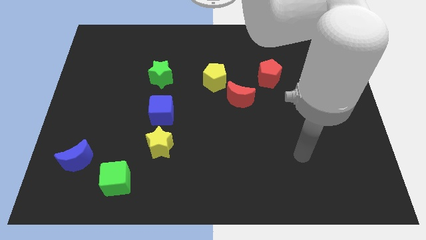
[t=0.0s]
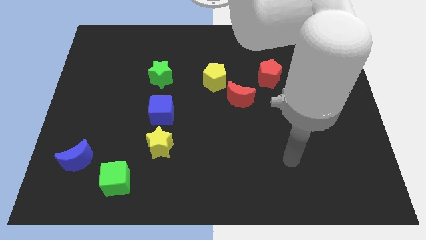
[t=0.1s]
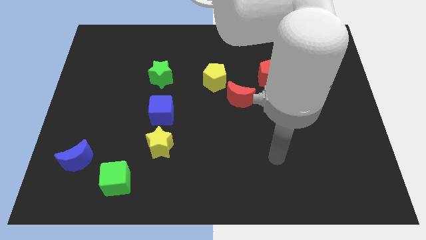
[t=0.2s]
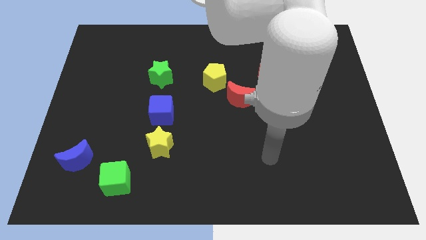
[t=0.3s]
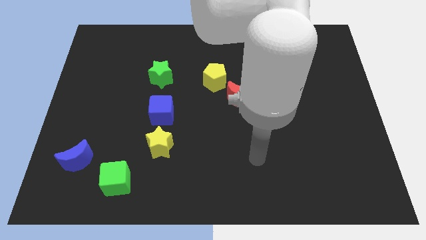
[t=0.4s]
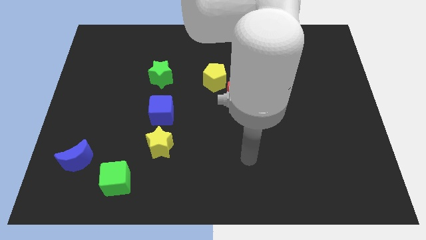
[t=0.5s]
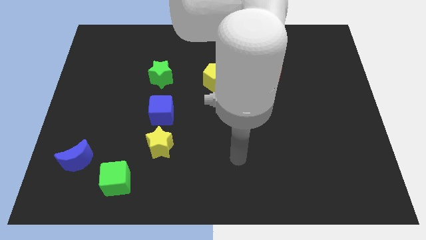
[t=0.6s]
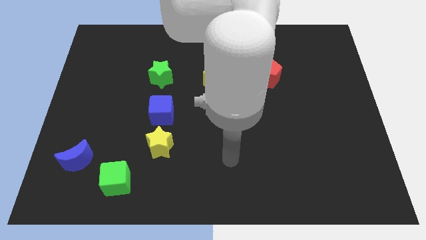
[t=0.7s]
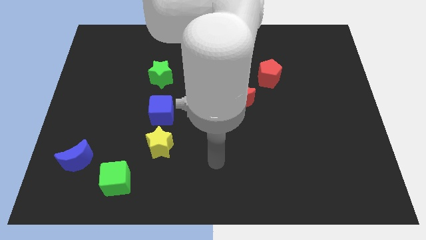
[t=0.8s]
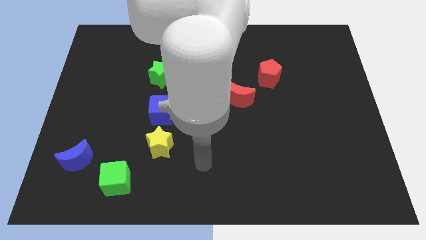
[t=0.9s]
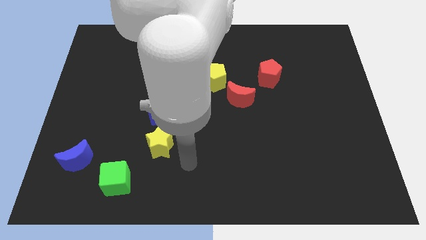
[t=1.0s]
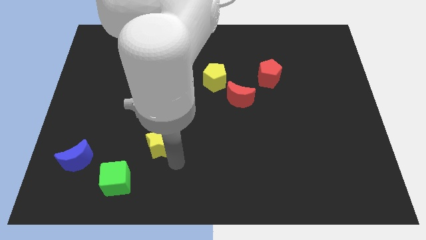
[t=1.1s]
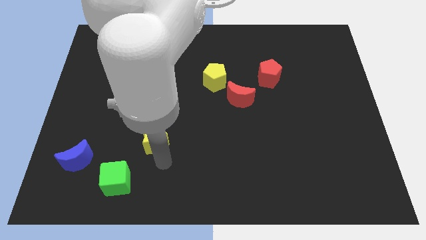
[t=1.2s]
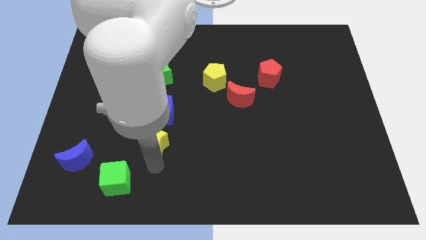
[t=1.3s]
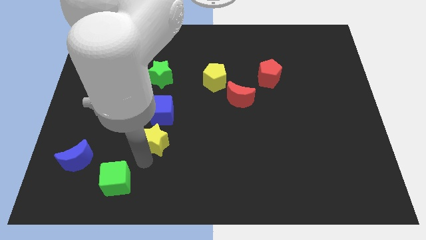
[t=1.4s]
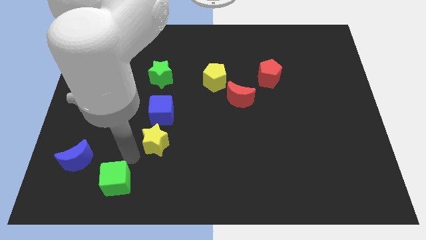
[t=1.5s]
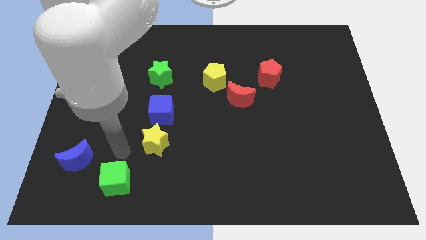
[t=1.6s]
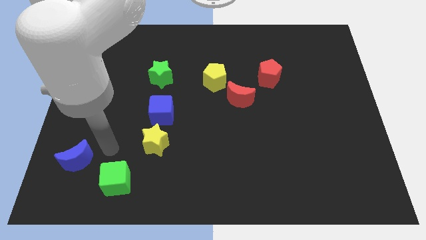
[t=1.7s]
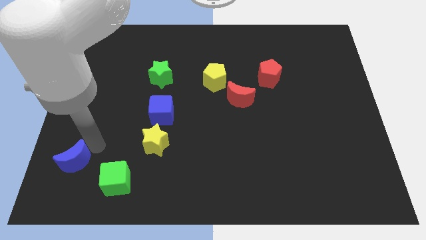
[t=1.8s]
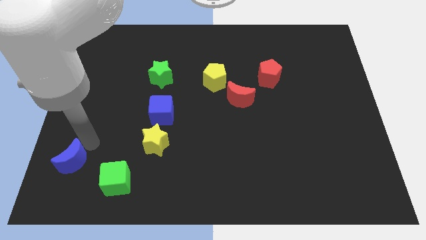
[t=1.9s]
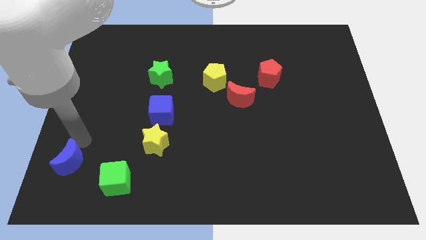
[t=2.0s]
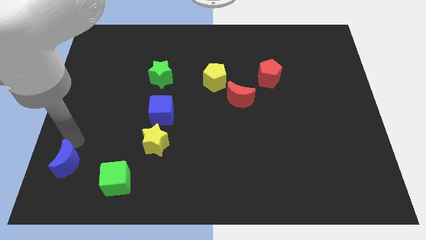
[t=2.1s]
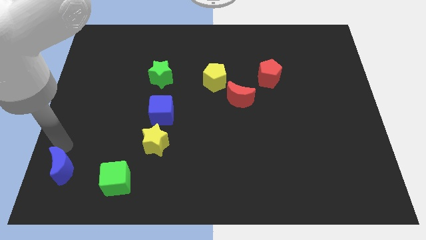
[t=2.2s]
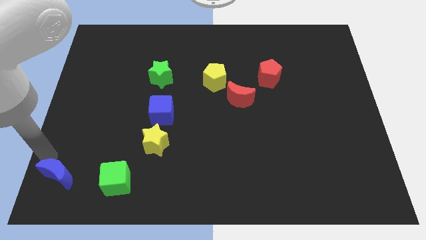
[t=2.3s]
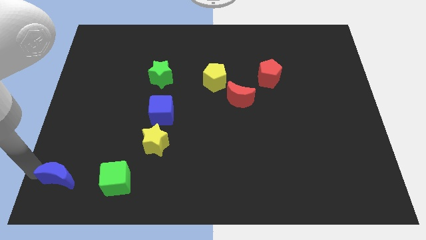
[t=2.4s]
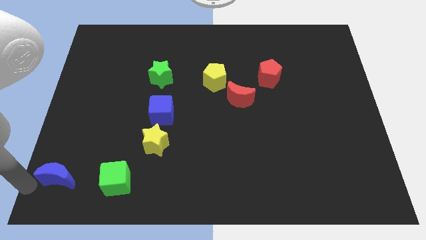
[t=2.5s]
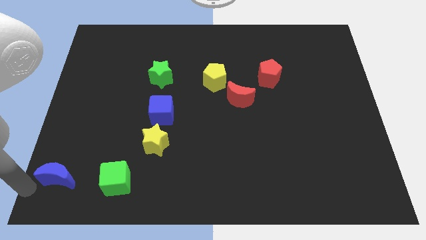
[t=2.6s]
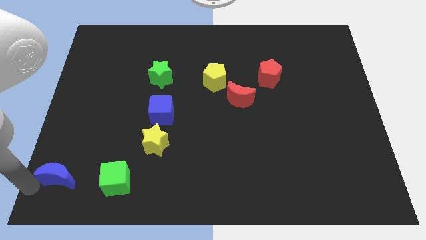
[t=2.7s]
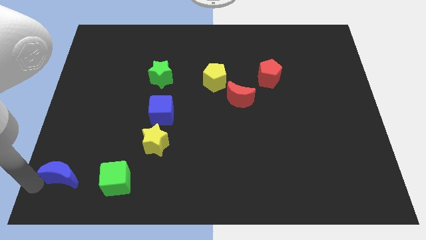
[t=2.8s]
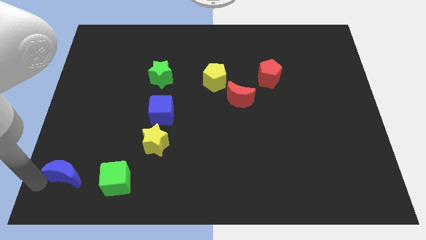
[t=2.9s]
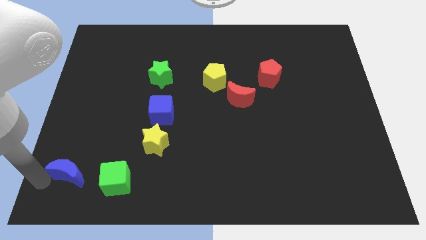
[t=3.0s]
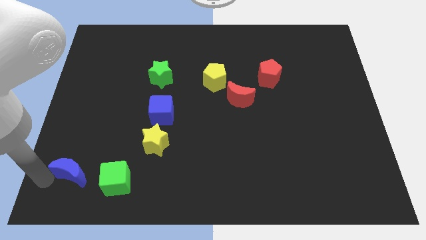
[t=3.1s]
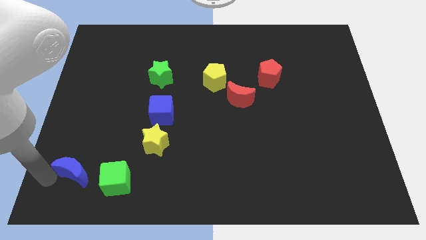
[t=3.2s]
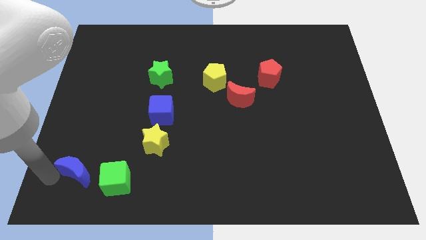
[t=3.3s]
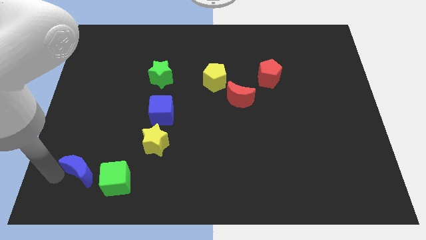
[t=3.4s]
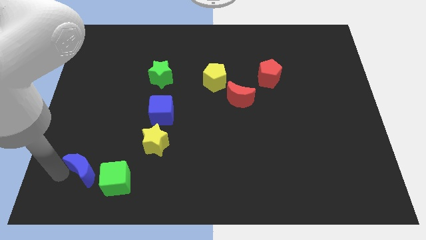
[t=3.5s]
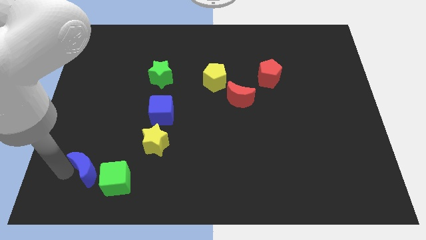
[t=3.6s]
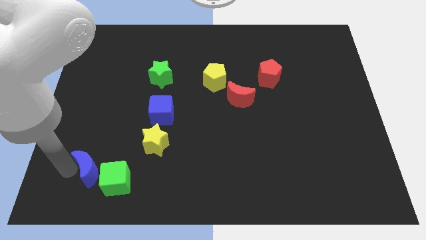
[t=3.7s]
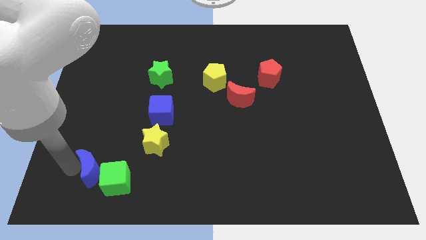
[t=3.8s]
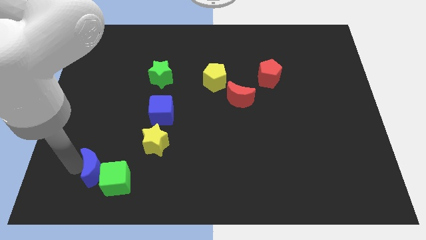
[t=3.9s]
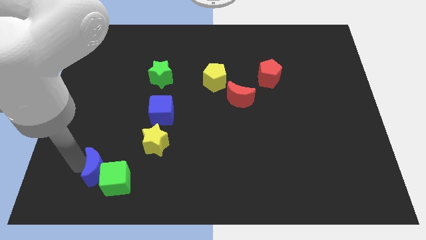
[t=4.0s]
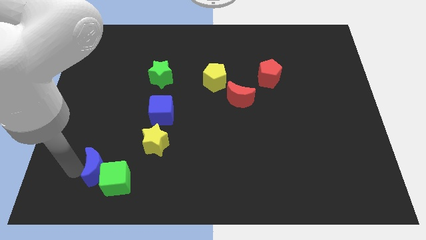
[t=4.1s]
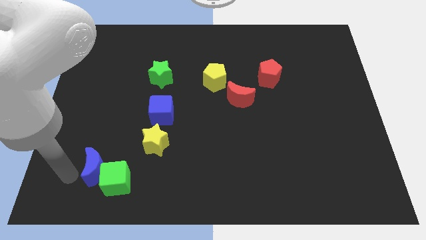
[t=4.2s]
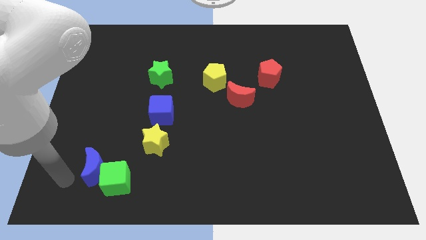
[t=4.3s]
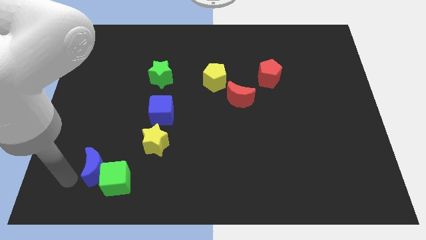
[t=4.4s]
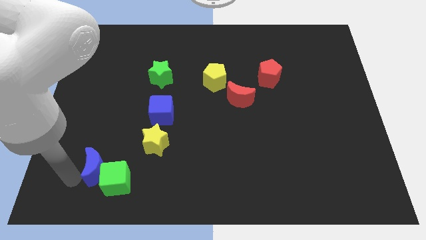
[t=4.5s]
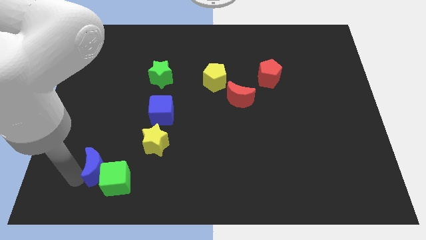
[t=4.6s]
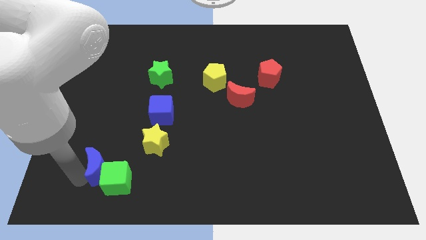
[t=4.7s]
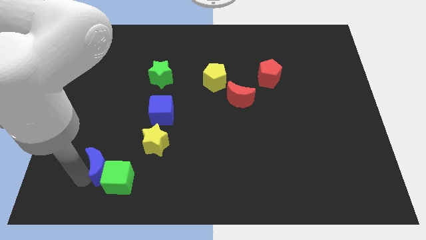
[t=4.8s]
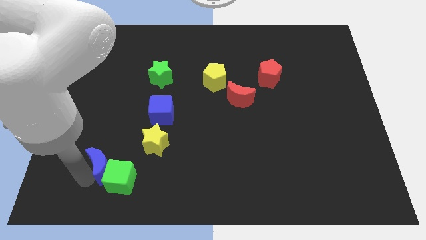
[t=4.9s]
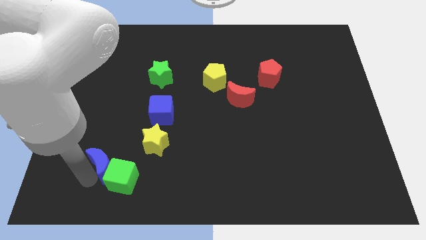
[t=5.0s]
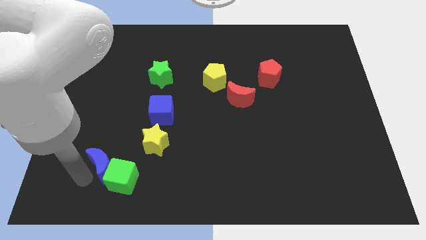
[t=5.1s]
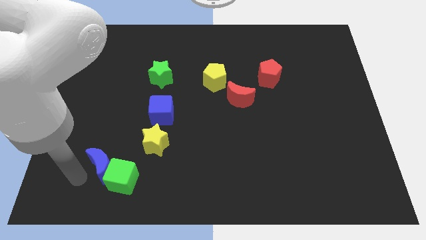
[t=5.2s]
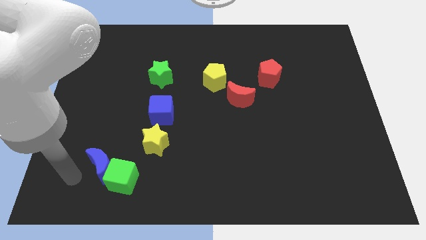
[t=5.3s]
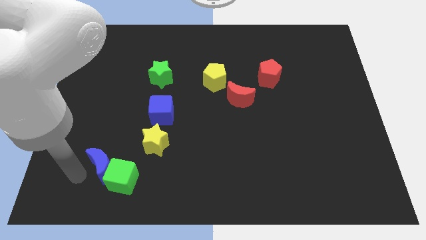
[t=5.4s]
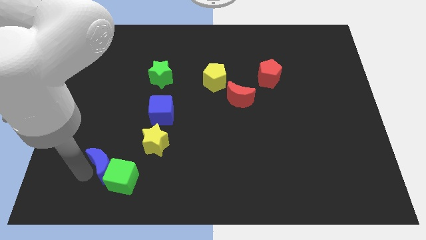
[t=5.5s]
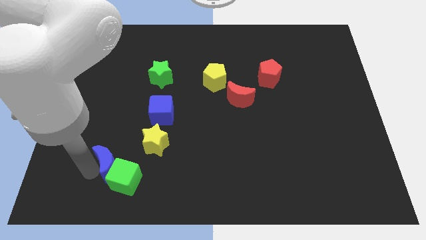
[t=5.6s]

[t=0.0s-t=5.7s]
move the blue moon right slightly

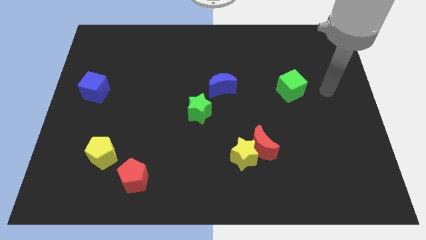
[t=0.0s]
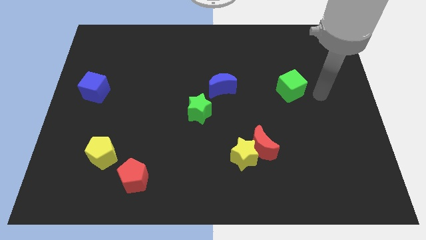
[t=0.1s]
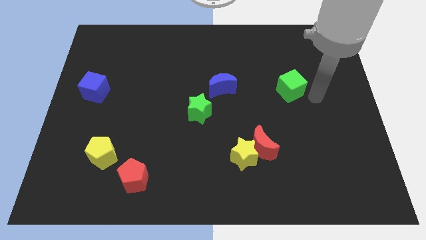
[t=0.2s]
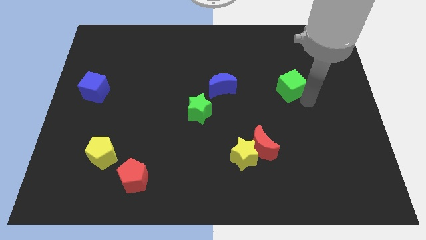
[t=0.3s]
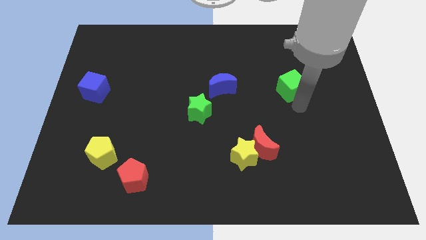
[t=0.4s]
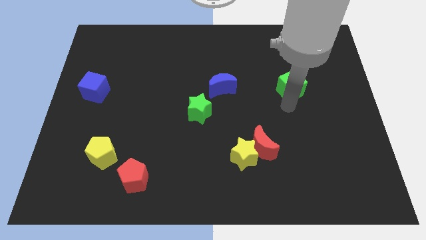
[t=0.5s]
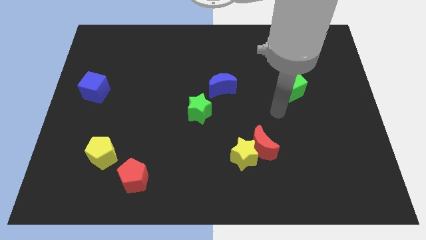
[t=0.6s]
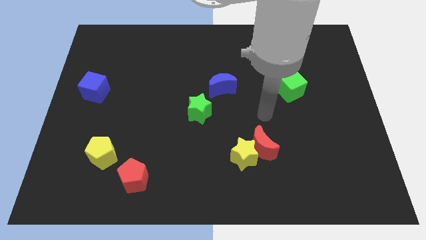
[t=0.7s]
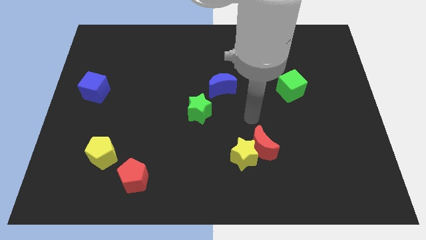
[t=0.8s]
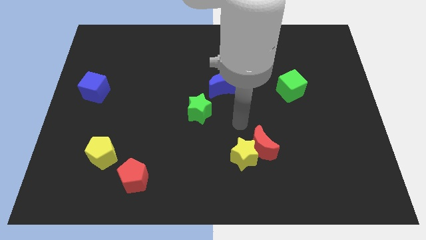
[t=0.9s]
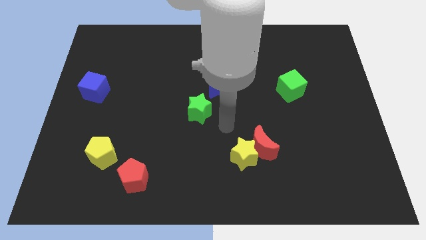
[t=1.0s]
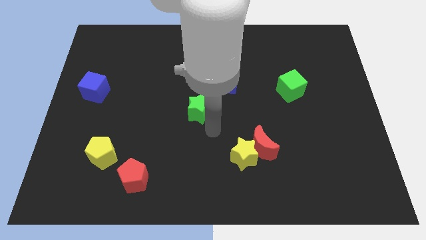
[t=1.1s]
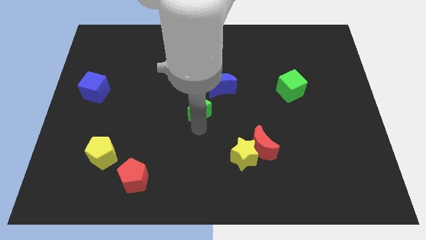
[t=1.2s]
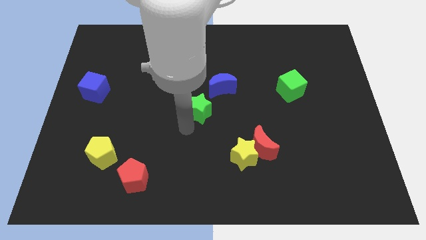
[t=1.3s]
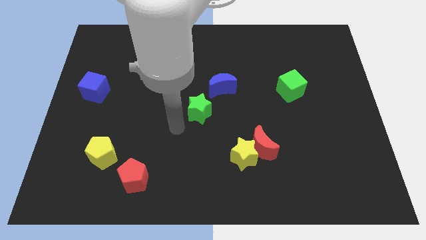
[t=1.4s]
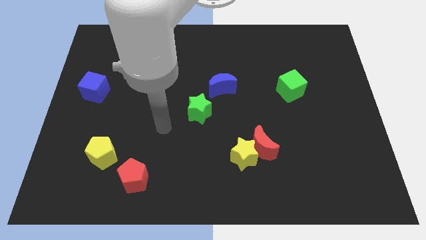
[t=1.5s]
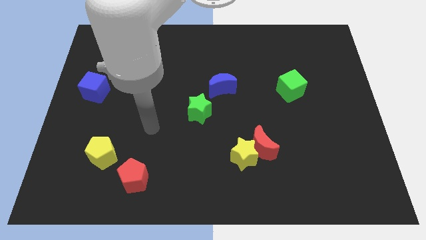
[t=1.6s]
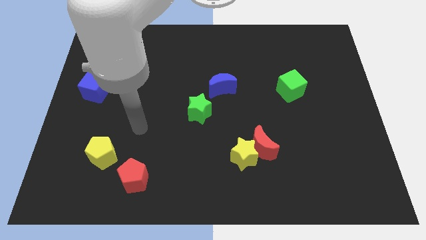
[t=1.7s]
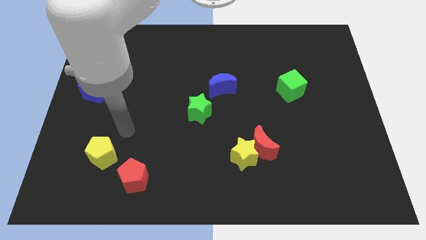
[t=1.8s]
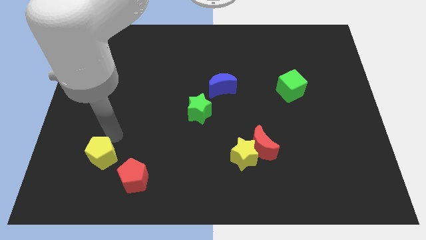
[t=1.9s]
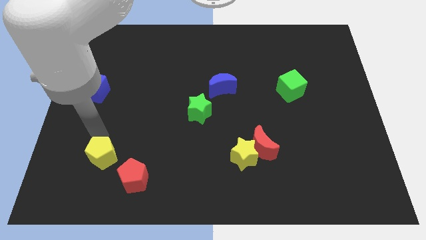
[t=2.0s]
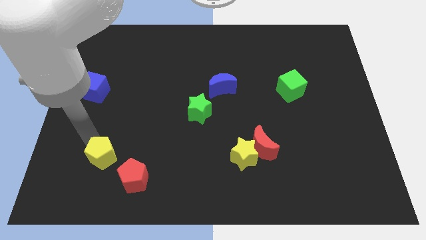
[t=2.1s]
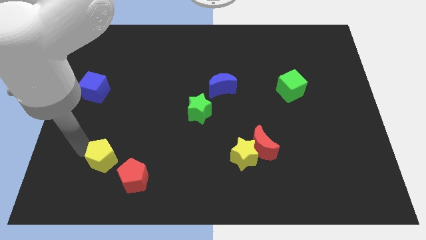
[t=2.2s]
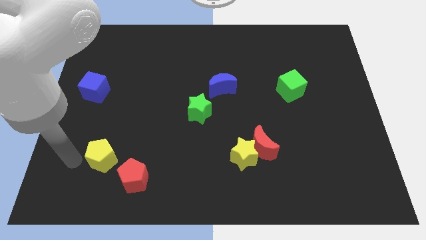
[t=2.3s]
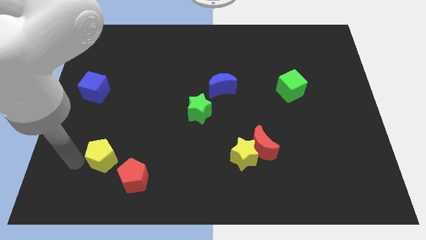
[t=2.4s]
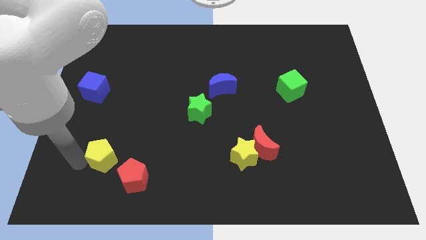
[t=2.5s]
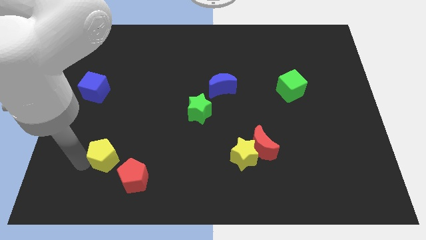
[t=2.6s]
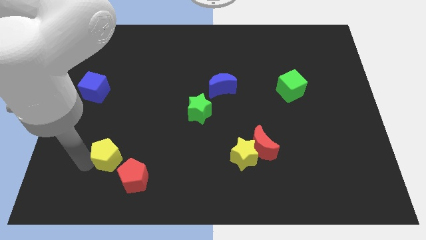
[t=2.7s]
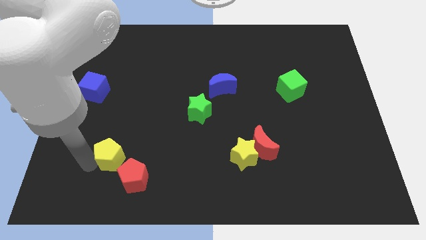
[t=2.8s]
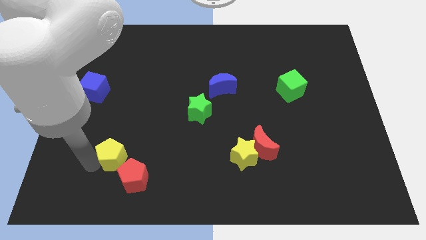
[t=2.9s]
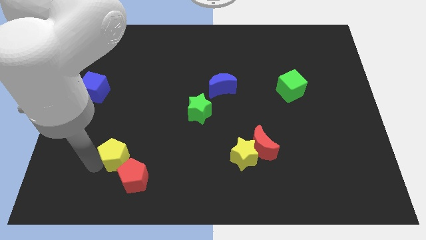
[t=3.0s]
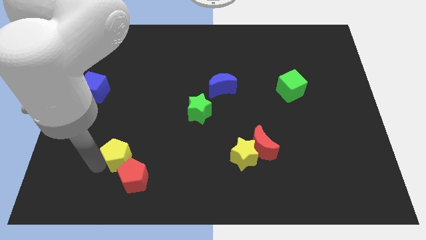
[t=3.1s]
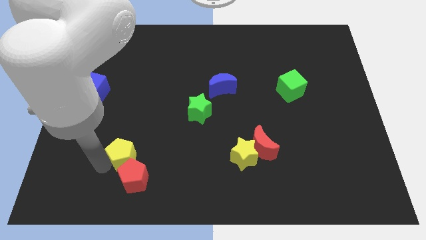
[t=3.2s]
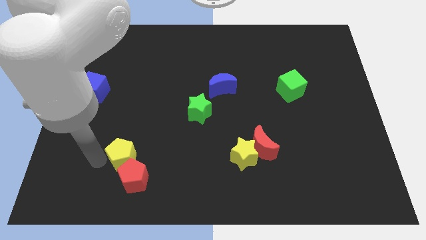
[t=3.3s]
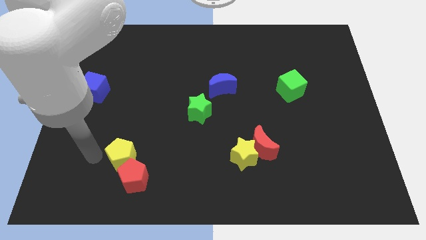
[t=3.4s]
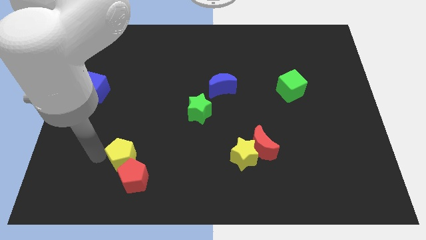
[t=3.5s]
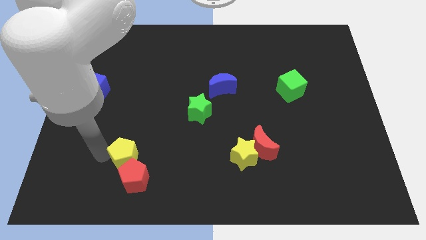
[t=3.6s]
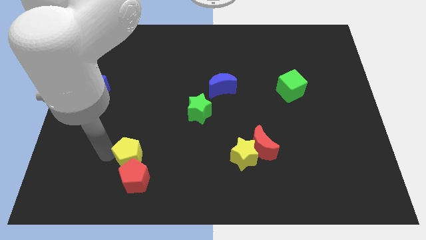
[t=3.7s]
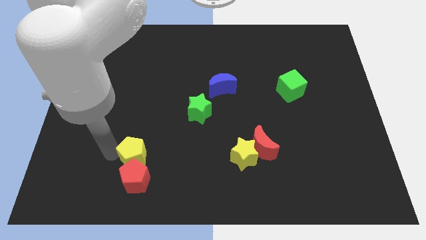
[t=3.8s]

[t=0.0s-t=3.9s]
slightly move the yellow pentagon right
